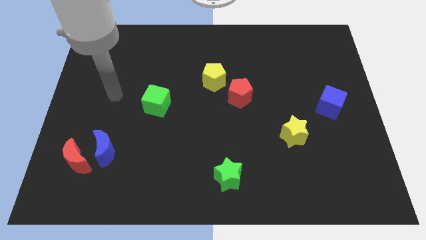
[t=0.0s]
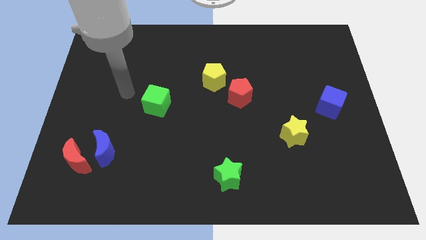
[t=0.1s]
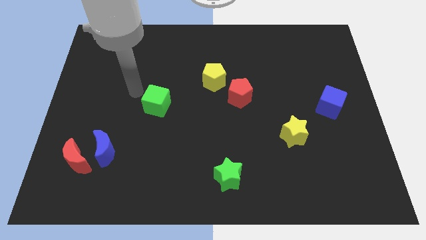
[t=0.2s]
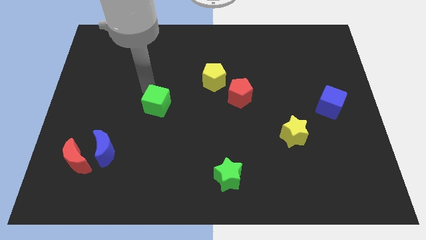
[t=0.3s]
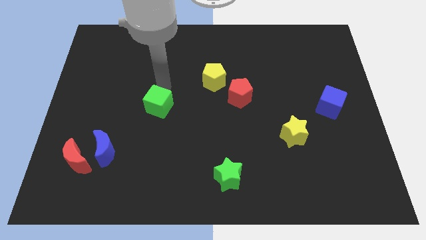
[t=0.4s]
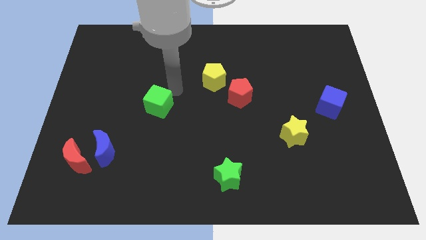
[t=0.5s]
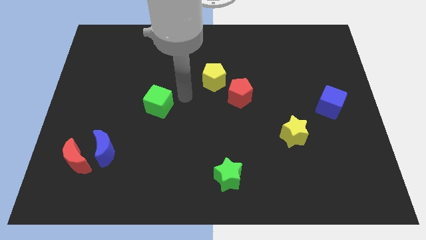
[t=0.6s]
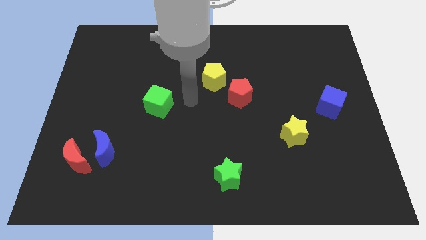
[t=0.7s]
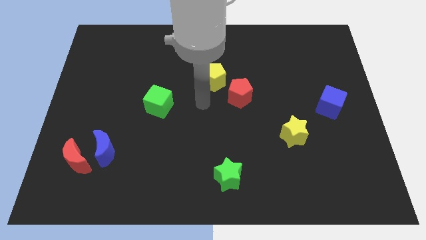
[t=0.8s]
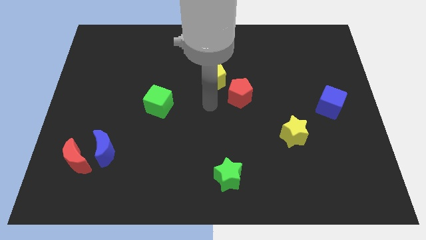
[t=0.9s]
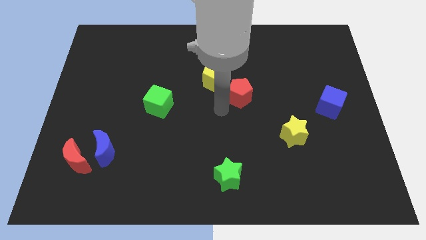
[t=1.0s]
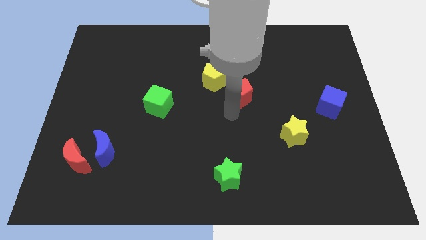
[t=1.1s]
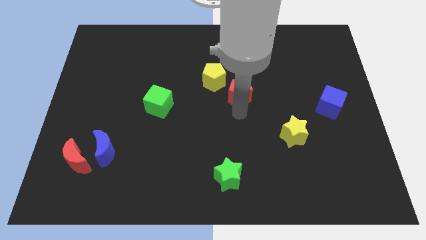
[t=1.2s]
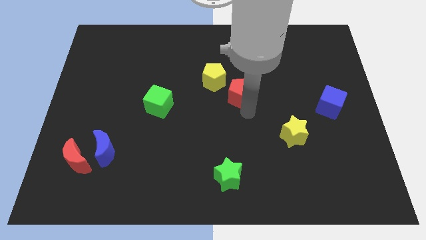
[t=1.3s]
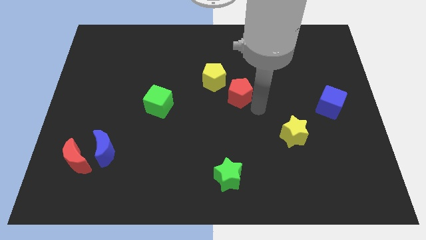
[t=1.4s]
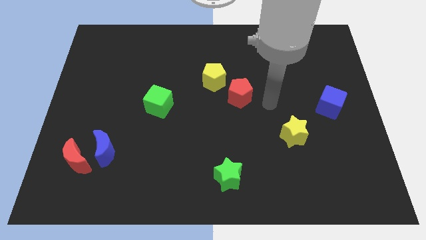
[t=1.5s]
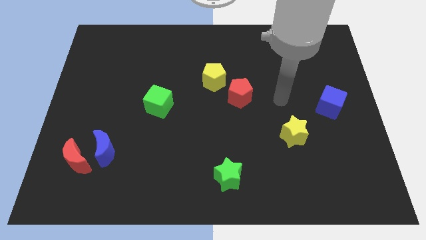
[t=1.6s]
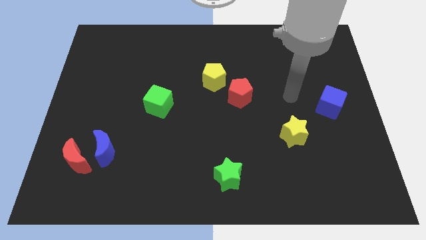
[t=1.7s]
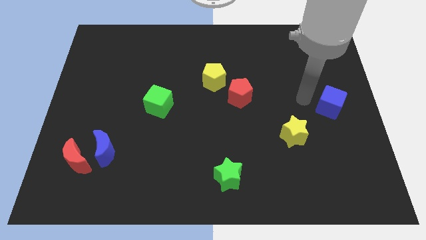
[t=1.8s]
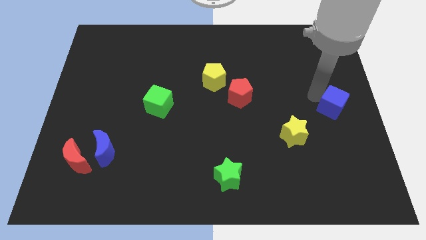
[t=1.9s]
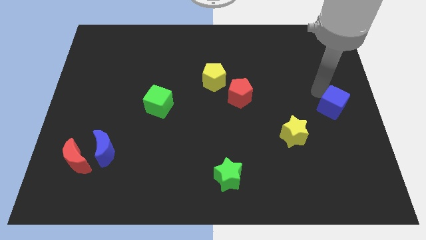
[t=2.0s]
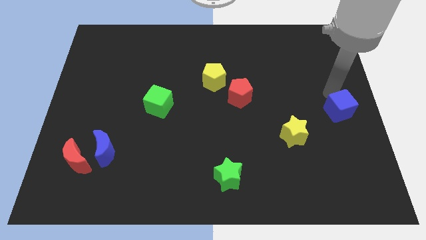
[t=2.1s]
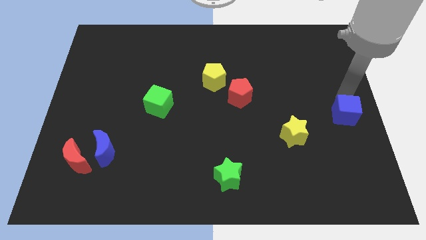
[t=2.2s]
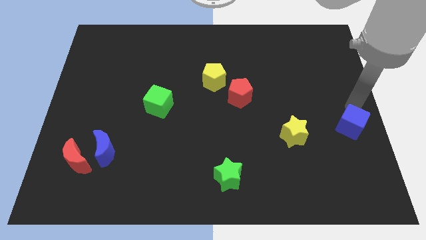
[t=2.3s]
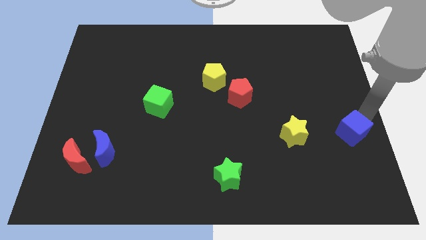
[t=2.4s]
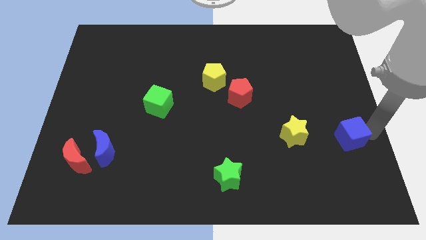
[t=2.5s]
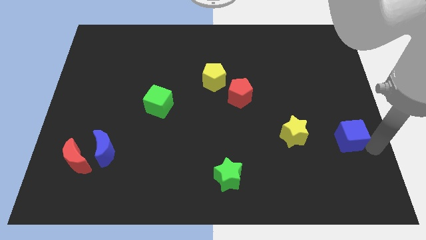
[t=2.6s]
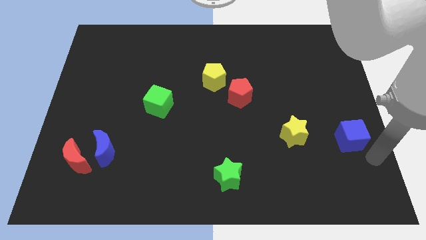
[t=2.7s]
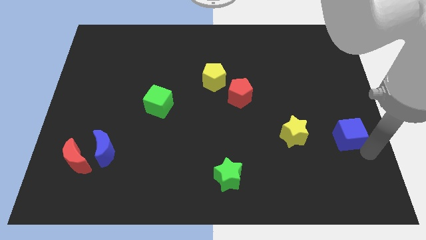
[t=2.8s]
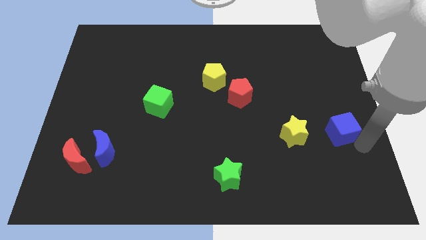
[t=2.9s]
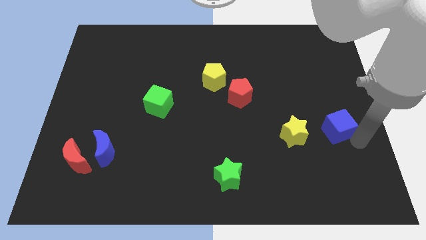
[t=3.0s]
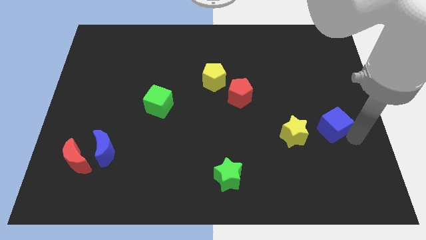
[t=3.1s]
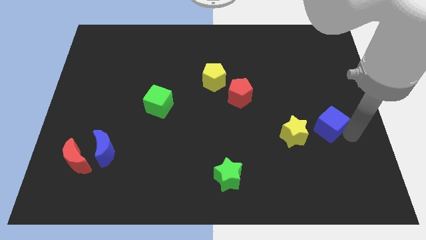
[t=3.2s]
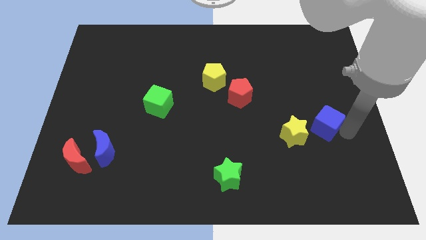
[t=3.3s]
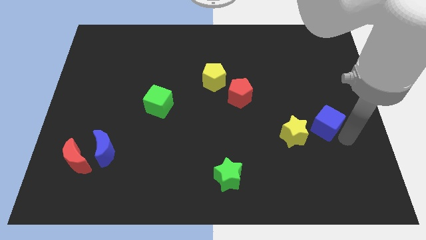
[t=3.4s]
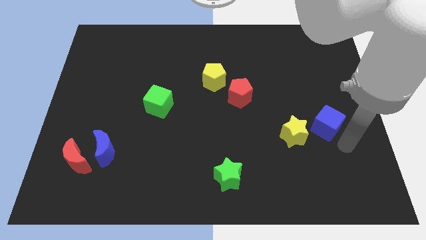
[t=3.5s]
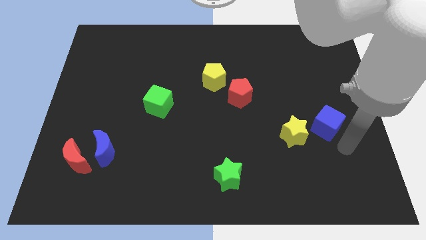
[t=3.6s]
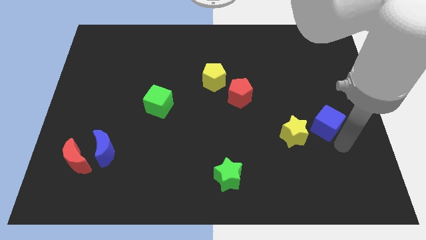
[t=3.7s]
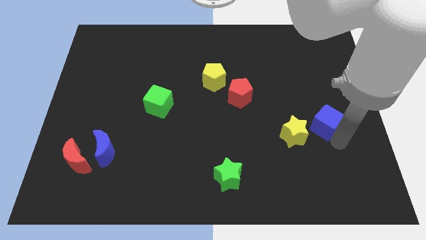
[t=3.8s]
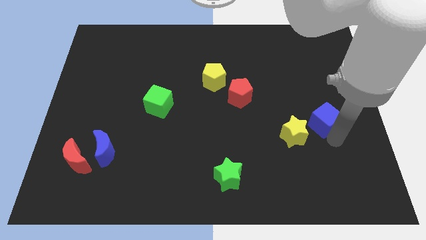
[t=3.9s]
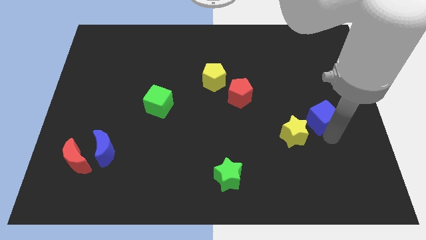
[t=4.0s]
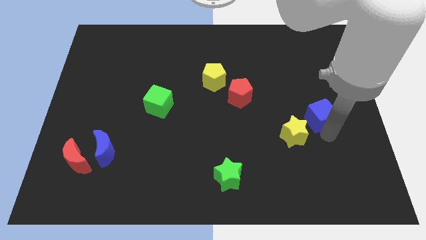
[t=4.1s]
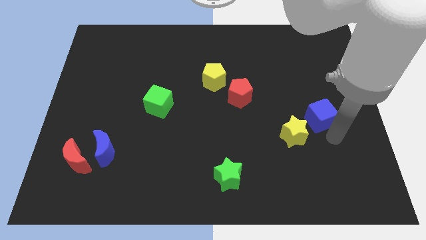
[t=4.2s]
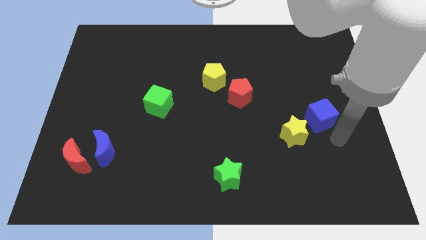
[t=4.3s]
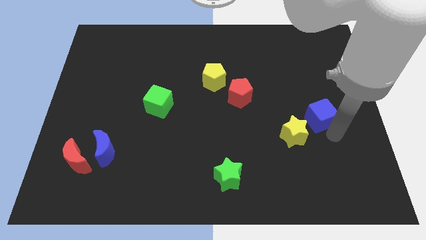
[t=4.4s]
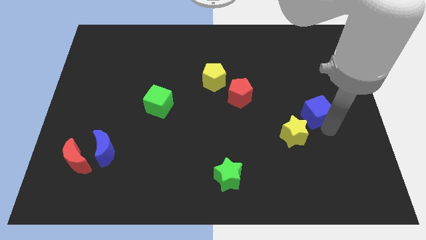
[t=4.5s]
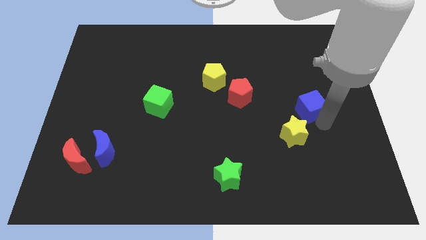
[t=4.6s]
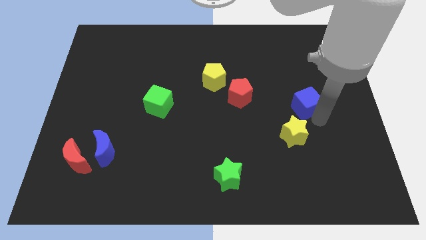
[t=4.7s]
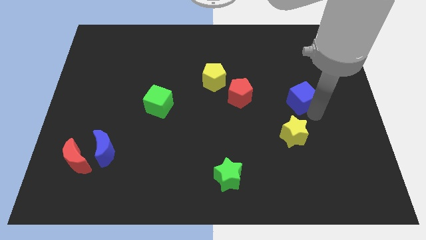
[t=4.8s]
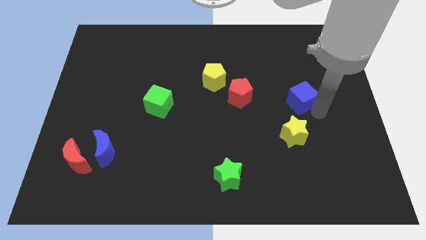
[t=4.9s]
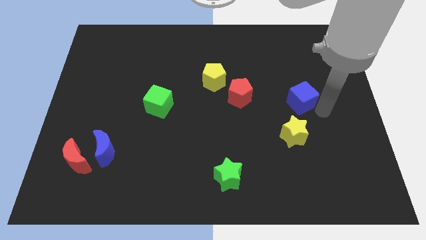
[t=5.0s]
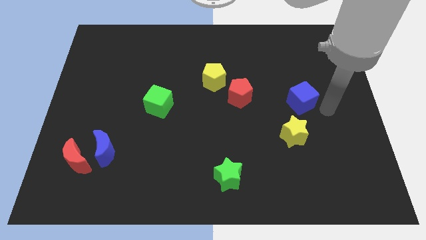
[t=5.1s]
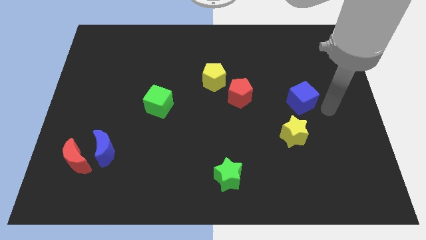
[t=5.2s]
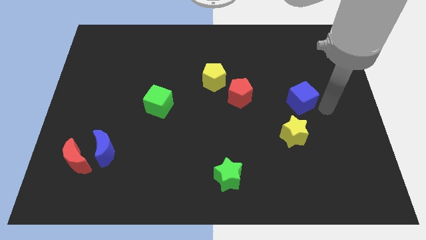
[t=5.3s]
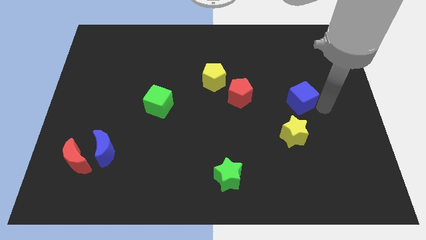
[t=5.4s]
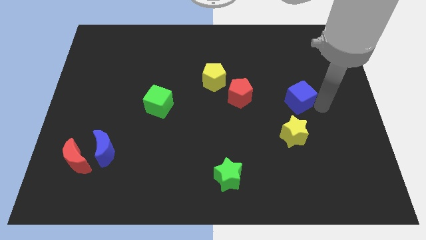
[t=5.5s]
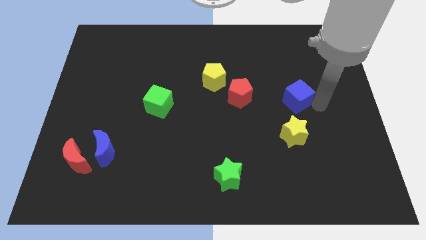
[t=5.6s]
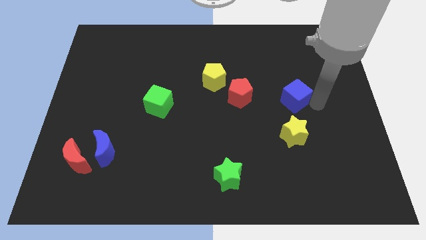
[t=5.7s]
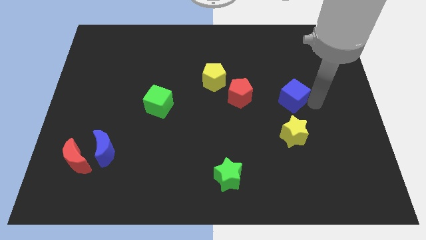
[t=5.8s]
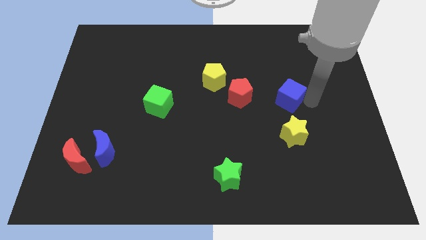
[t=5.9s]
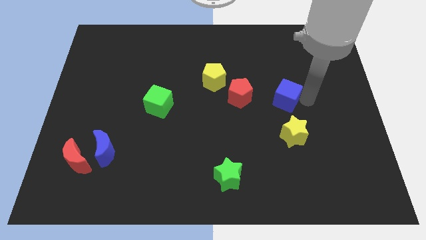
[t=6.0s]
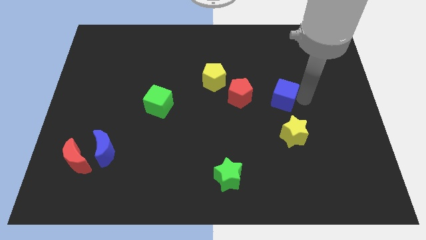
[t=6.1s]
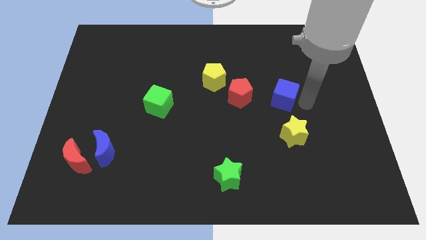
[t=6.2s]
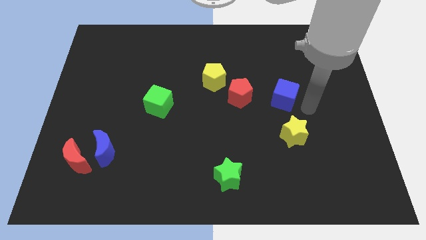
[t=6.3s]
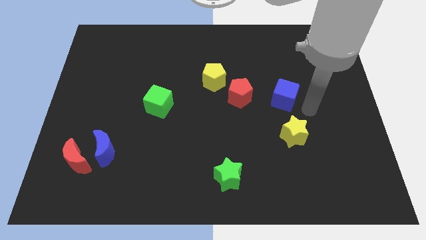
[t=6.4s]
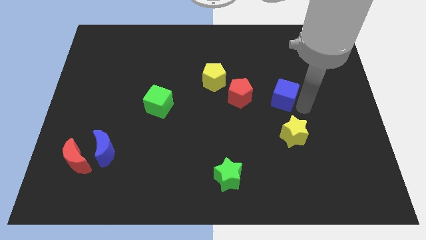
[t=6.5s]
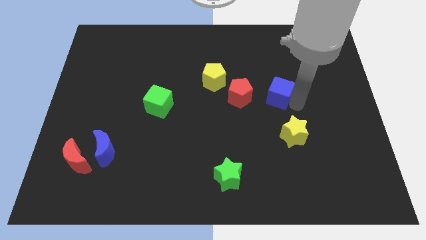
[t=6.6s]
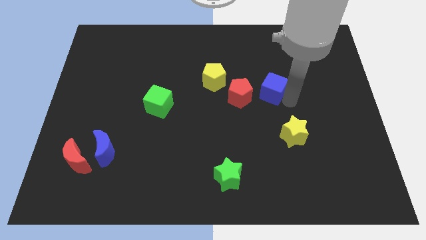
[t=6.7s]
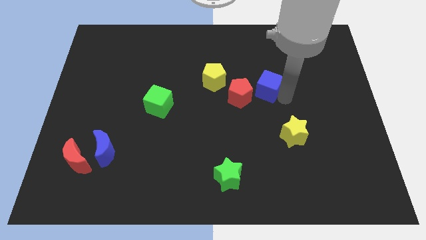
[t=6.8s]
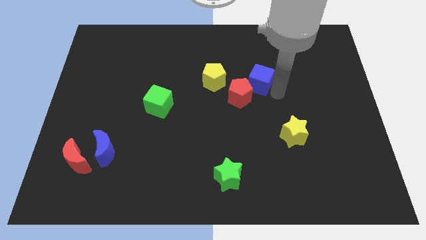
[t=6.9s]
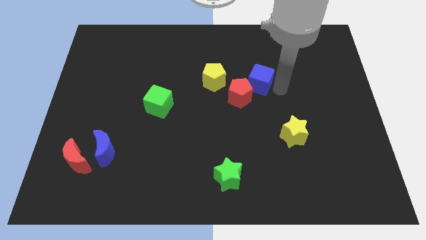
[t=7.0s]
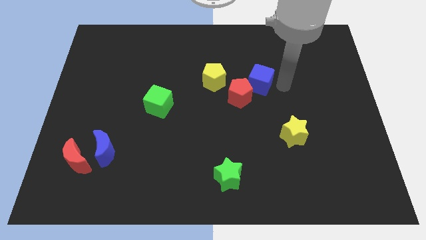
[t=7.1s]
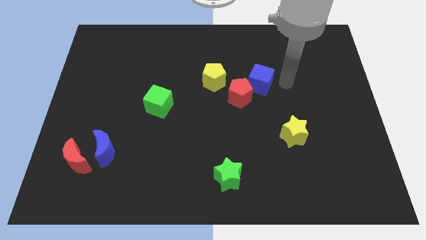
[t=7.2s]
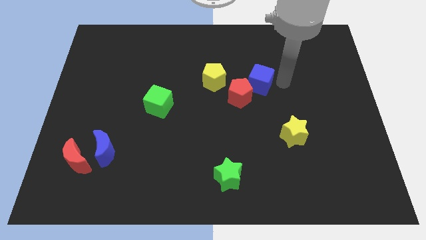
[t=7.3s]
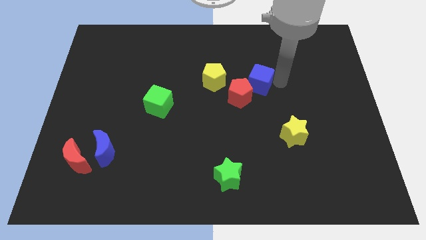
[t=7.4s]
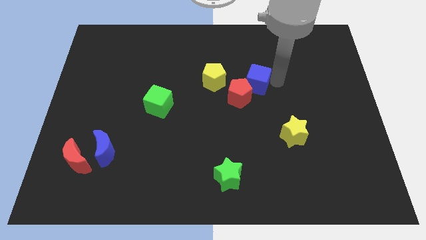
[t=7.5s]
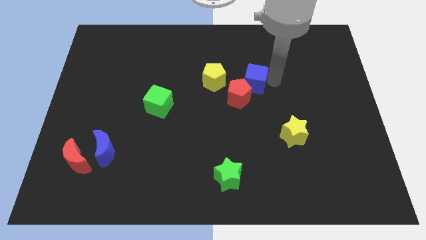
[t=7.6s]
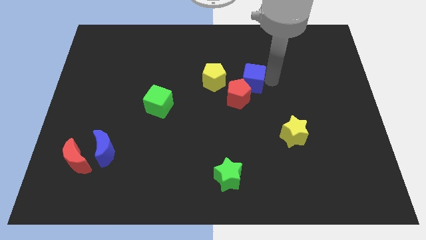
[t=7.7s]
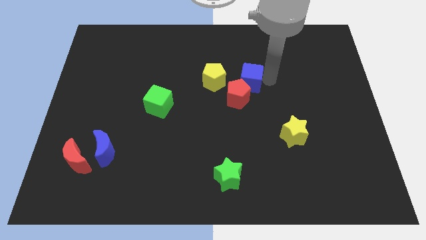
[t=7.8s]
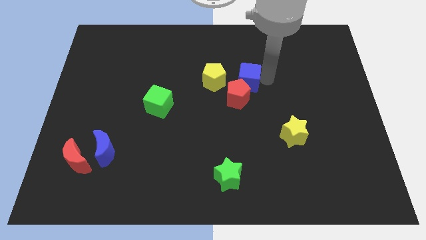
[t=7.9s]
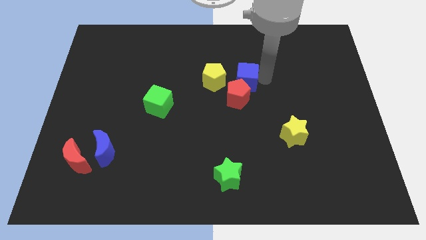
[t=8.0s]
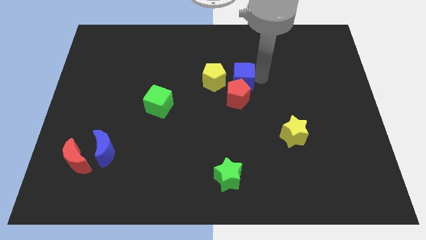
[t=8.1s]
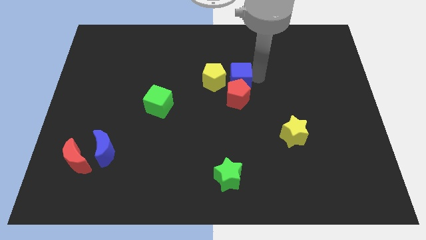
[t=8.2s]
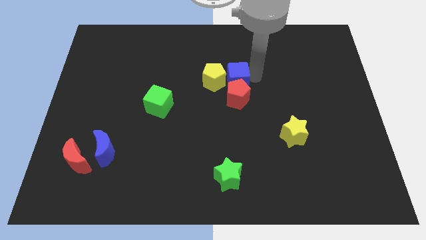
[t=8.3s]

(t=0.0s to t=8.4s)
put the blue cube close to the yellow pentagon
